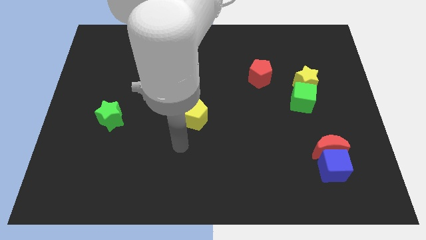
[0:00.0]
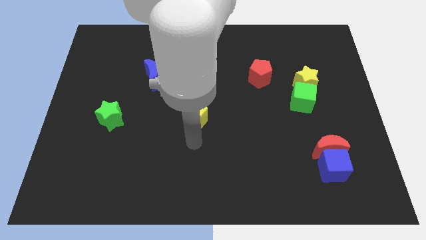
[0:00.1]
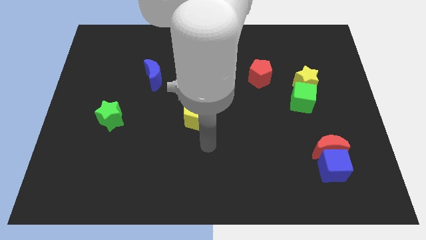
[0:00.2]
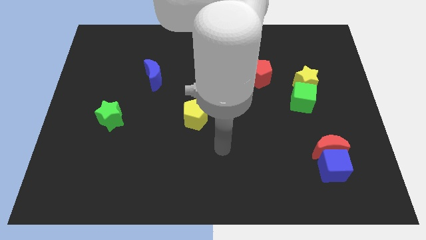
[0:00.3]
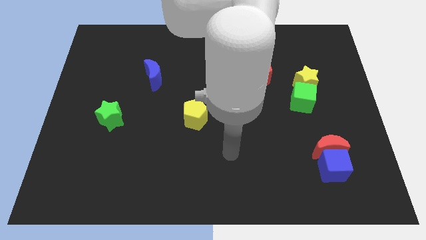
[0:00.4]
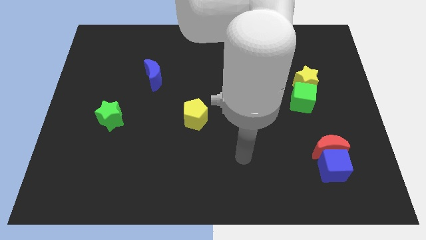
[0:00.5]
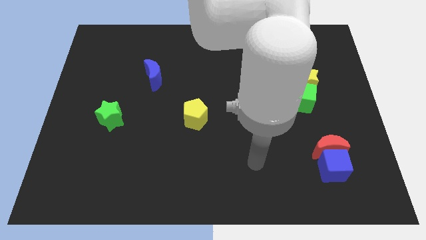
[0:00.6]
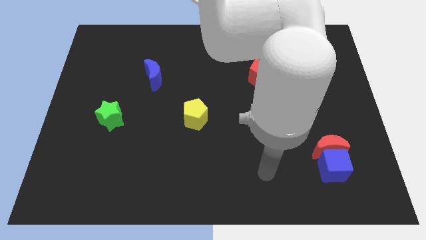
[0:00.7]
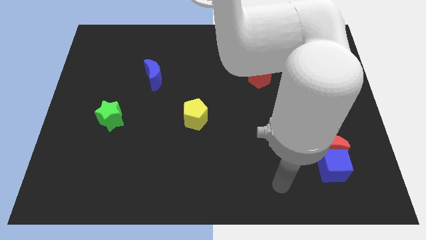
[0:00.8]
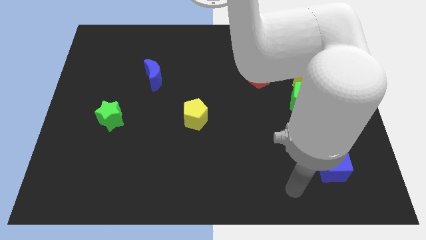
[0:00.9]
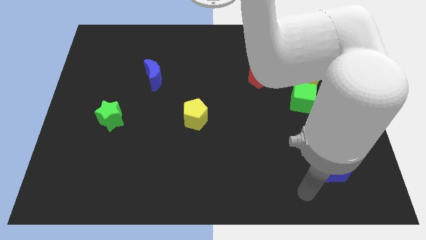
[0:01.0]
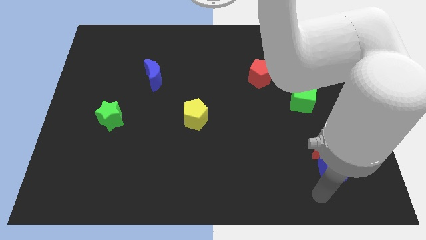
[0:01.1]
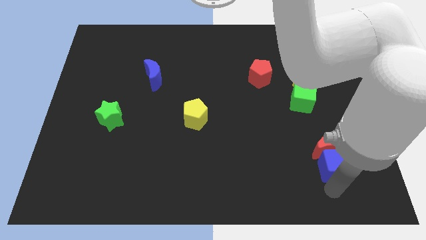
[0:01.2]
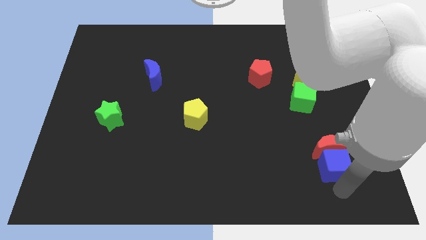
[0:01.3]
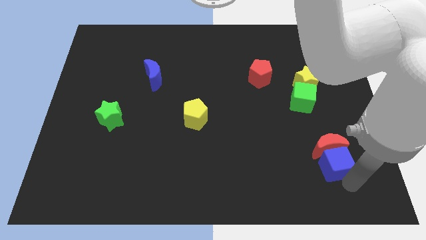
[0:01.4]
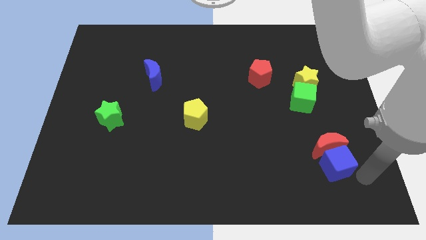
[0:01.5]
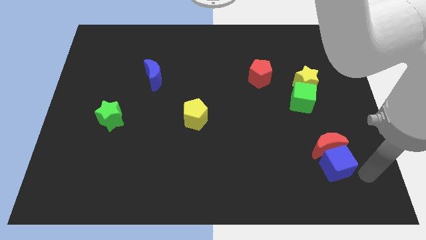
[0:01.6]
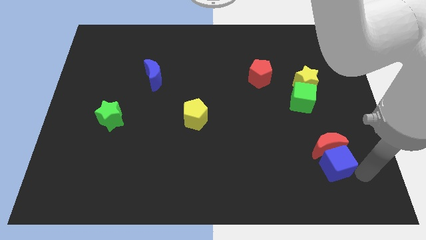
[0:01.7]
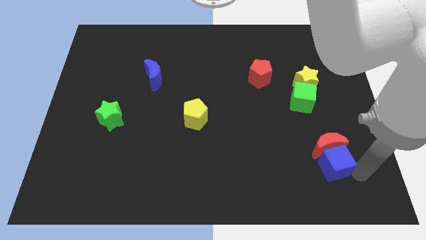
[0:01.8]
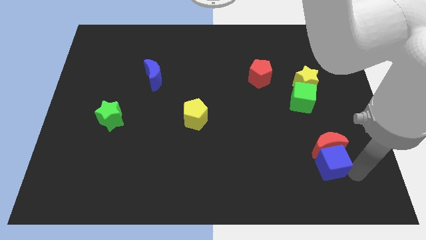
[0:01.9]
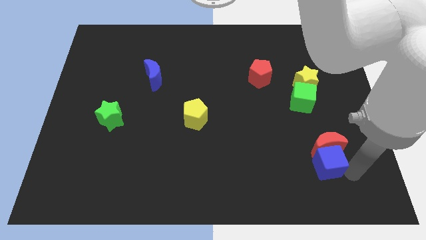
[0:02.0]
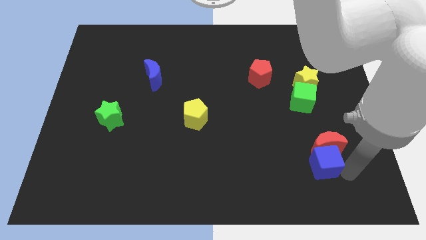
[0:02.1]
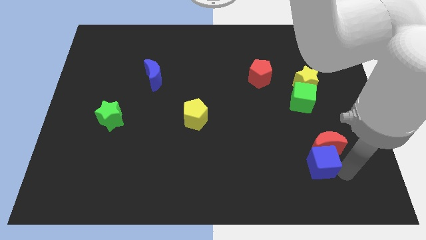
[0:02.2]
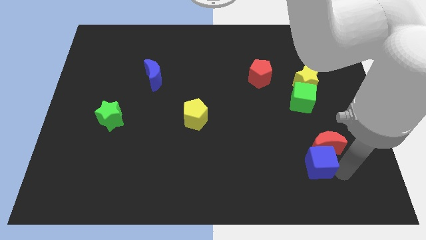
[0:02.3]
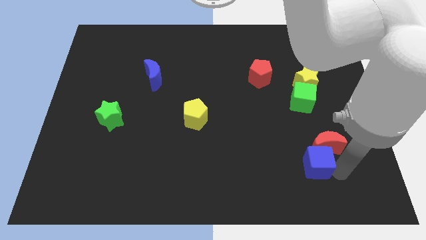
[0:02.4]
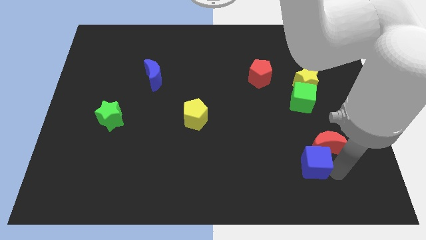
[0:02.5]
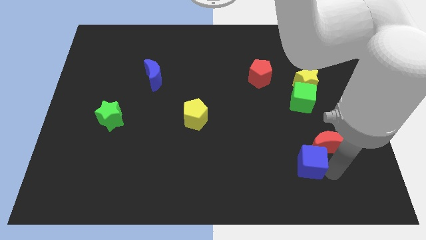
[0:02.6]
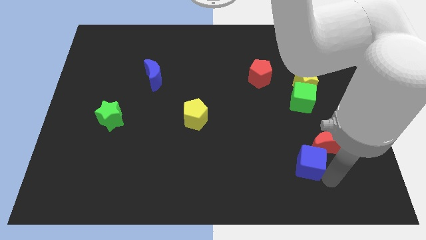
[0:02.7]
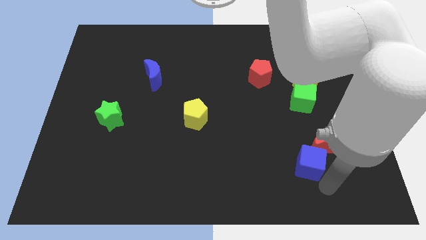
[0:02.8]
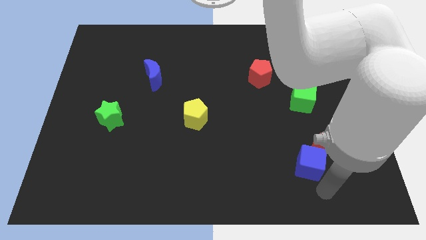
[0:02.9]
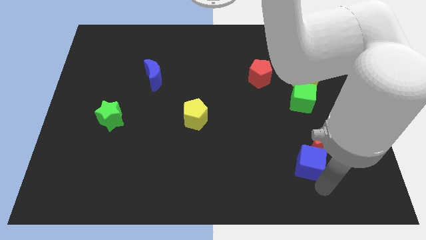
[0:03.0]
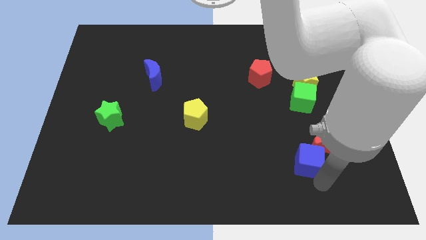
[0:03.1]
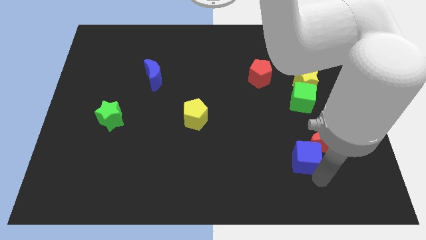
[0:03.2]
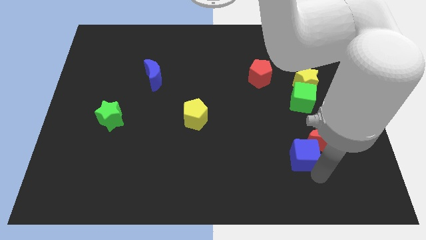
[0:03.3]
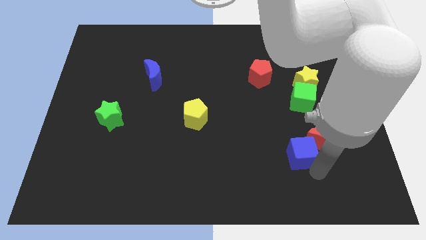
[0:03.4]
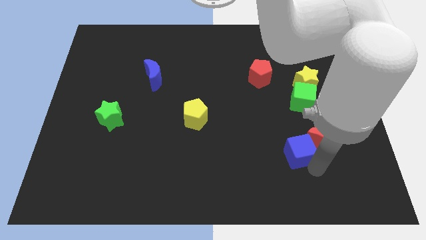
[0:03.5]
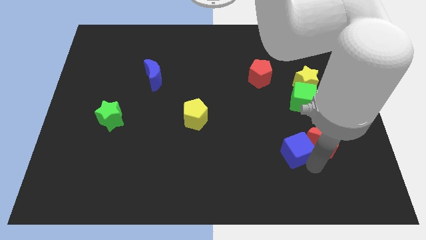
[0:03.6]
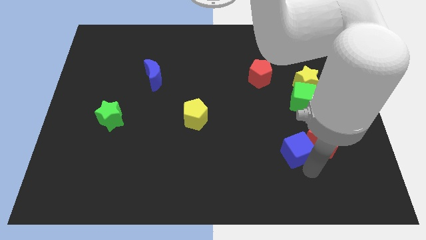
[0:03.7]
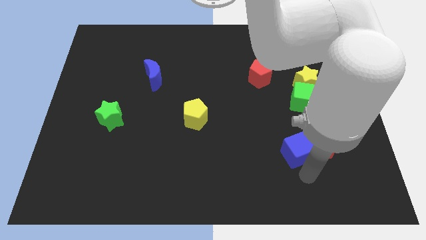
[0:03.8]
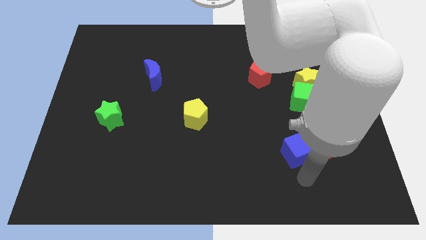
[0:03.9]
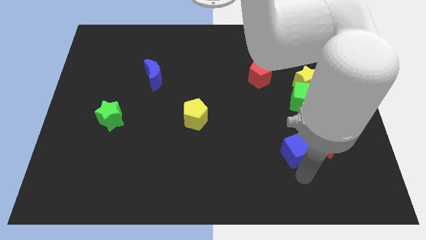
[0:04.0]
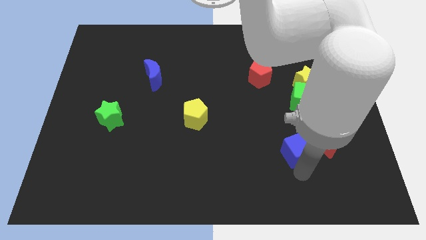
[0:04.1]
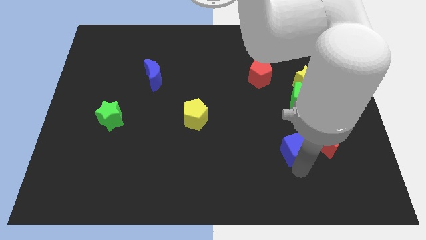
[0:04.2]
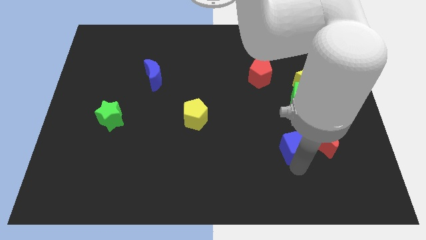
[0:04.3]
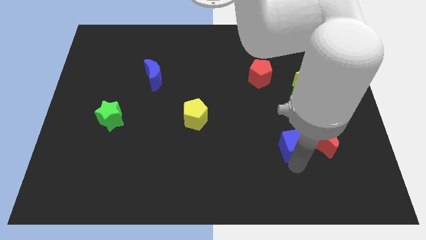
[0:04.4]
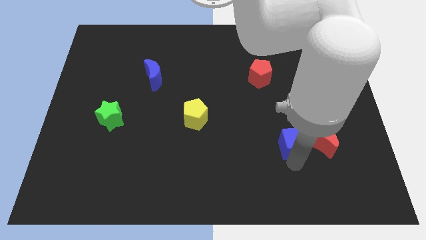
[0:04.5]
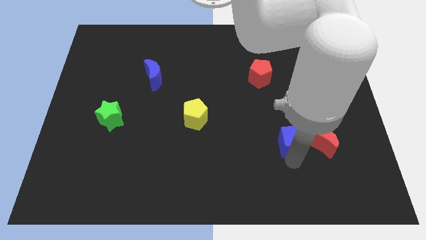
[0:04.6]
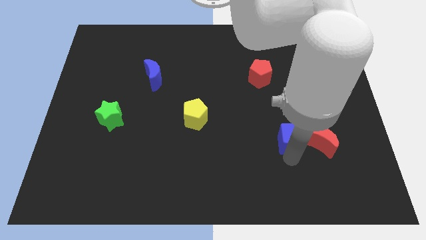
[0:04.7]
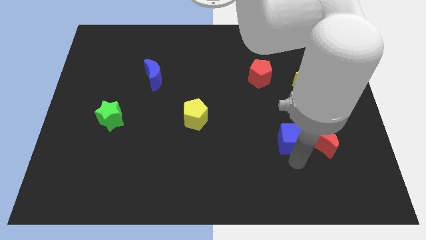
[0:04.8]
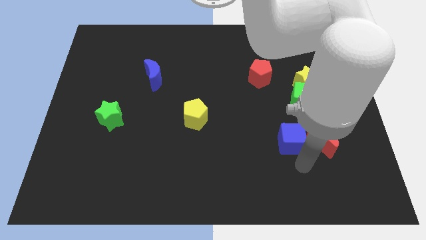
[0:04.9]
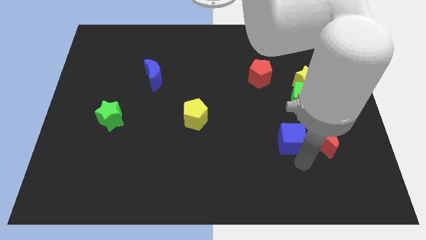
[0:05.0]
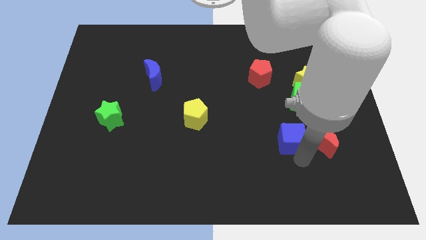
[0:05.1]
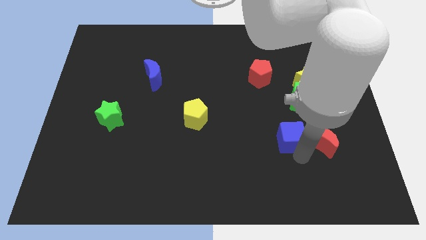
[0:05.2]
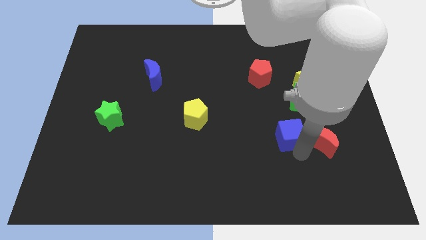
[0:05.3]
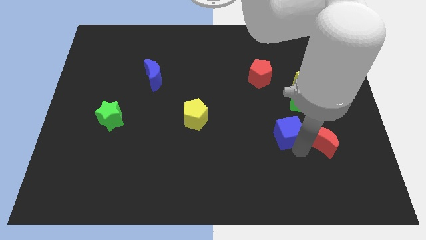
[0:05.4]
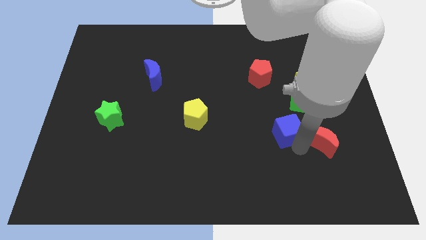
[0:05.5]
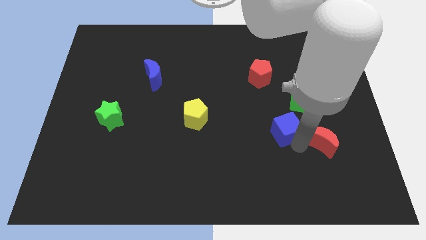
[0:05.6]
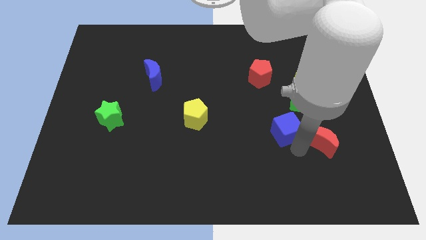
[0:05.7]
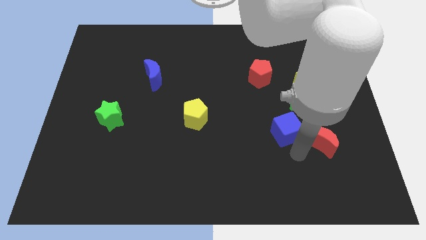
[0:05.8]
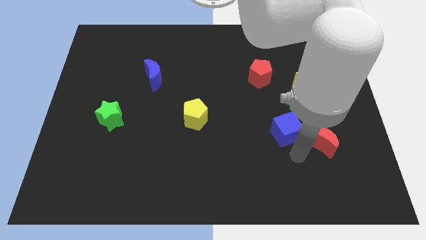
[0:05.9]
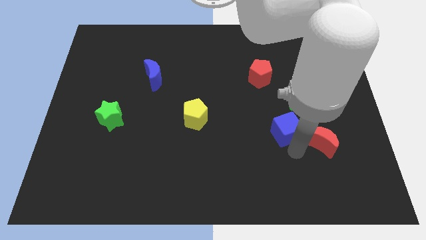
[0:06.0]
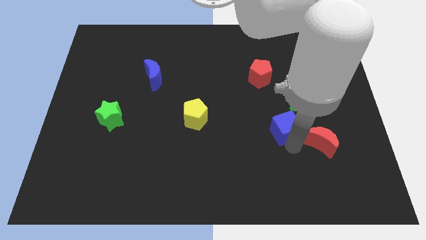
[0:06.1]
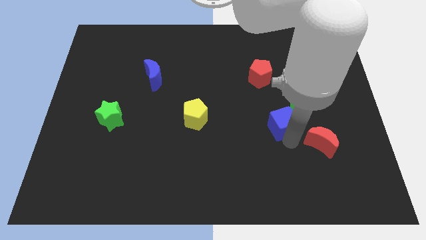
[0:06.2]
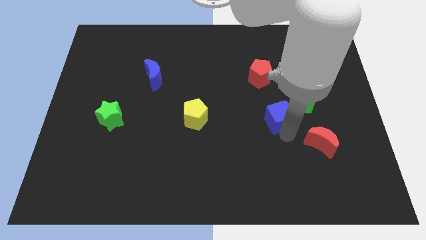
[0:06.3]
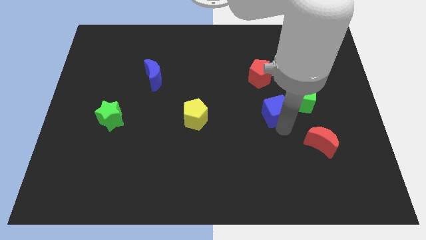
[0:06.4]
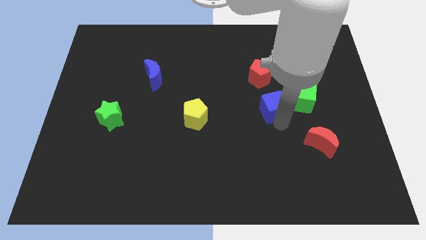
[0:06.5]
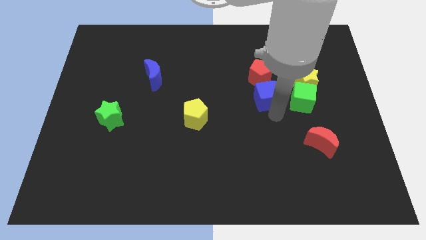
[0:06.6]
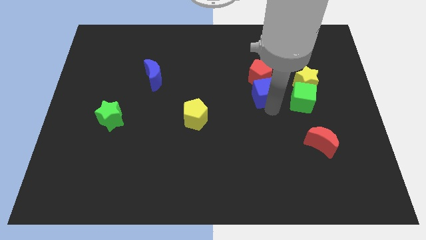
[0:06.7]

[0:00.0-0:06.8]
move the blue cube close to the red pentagon
